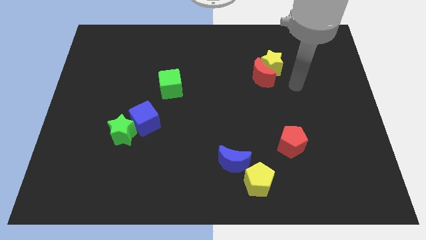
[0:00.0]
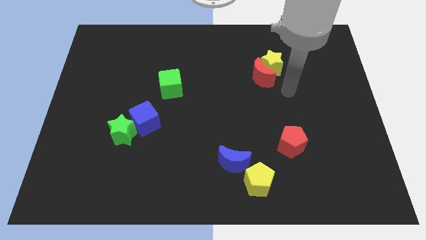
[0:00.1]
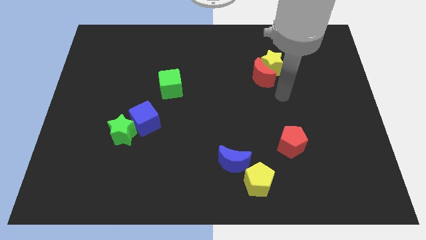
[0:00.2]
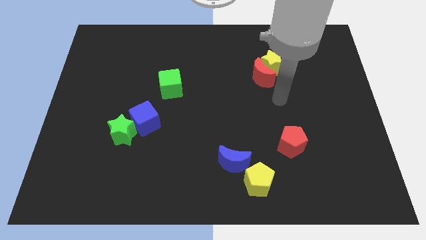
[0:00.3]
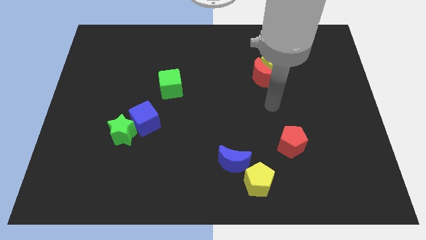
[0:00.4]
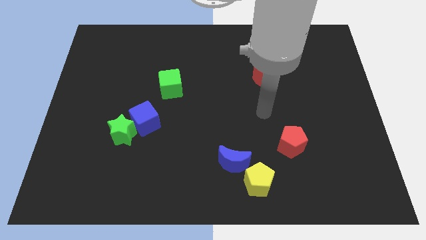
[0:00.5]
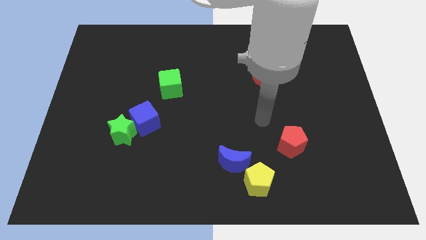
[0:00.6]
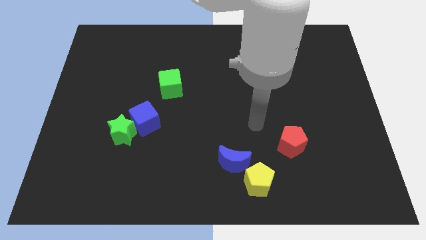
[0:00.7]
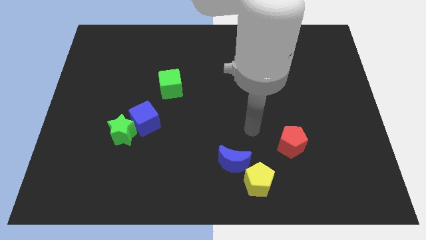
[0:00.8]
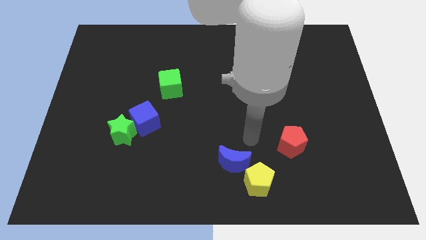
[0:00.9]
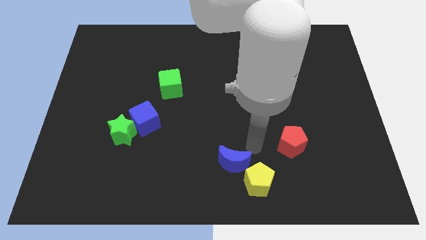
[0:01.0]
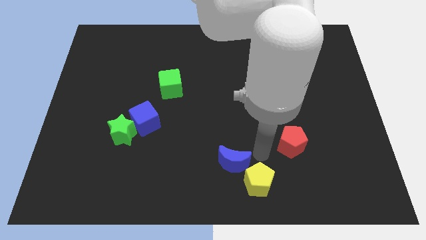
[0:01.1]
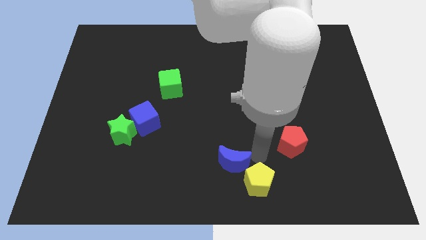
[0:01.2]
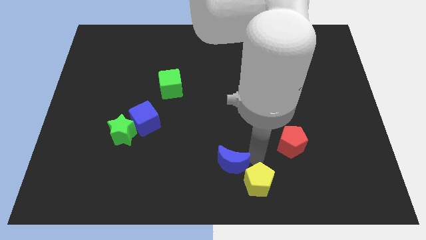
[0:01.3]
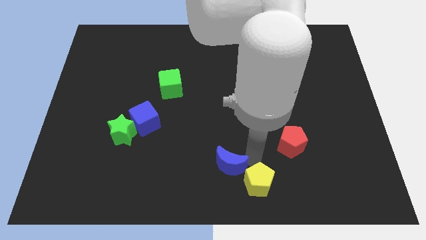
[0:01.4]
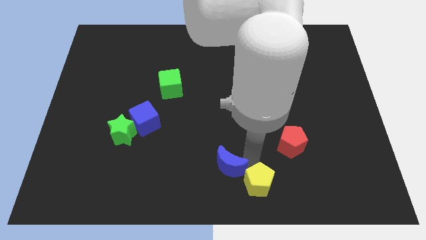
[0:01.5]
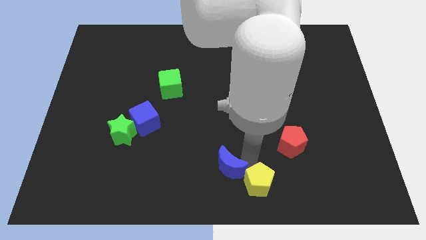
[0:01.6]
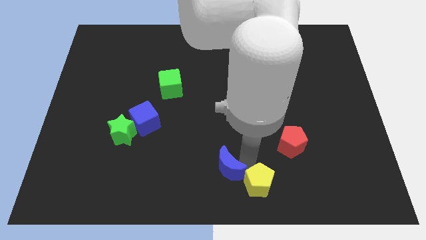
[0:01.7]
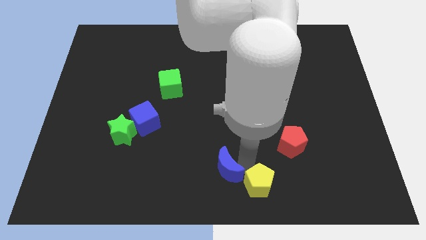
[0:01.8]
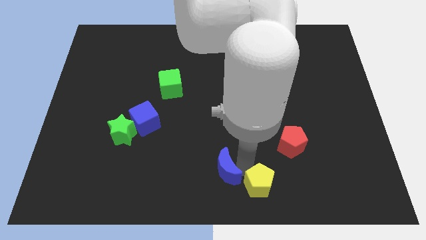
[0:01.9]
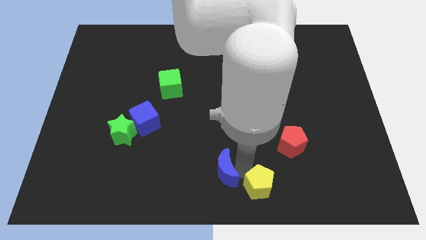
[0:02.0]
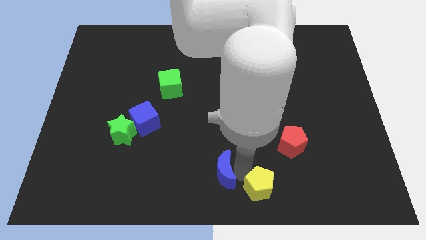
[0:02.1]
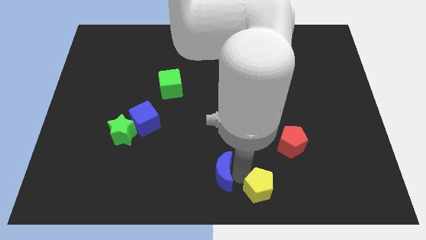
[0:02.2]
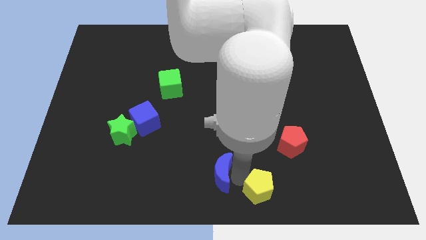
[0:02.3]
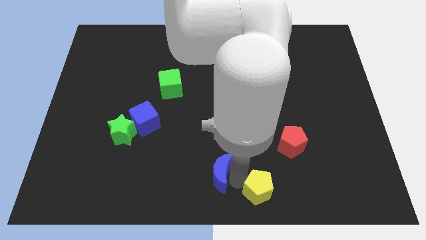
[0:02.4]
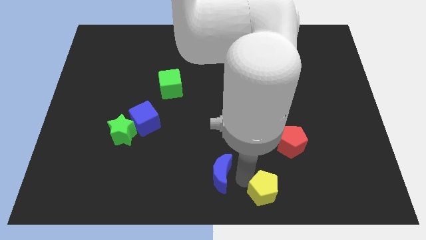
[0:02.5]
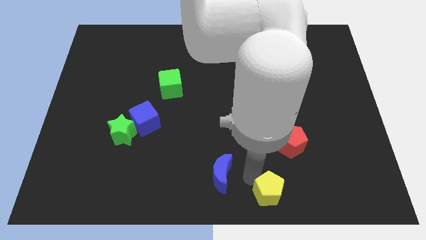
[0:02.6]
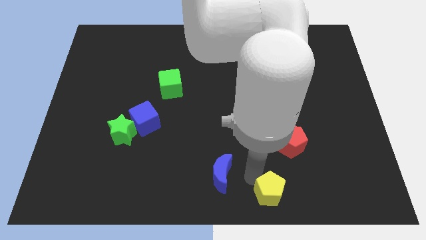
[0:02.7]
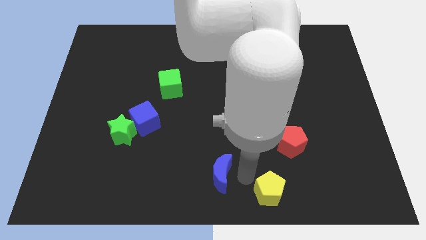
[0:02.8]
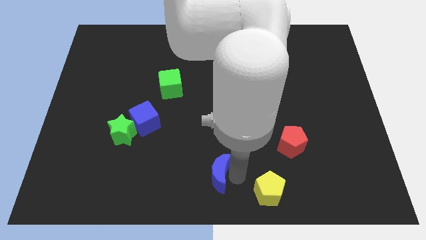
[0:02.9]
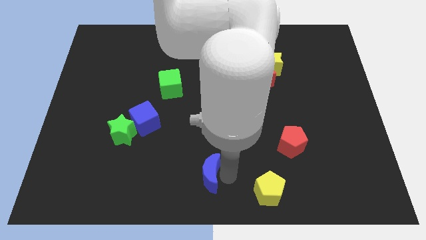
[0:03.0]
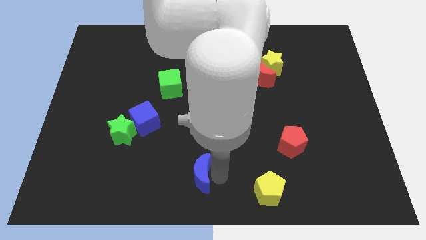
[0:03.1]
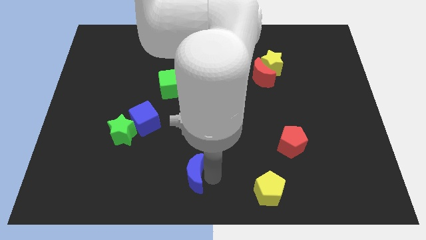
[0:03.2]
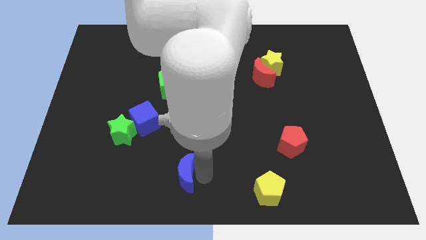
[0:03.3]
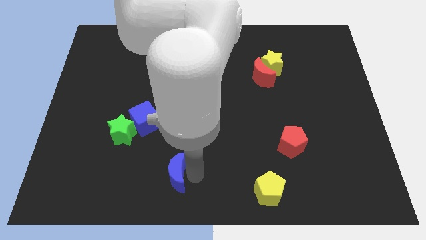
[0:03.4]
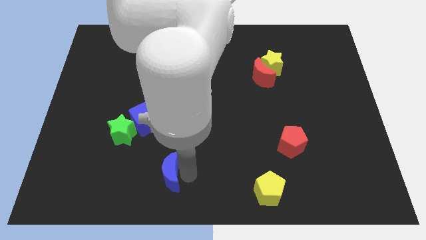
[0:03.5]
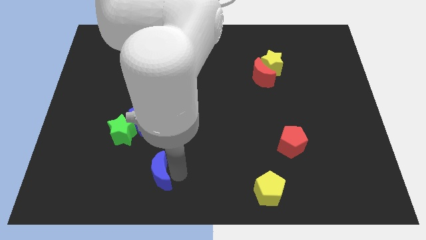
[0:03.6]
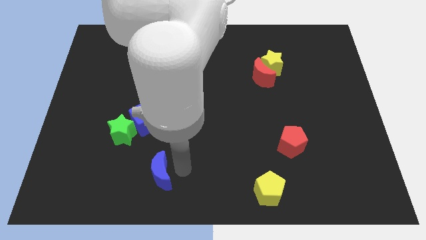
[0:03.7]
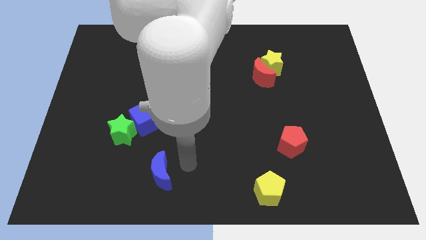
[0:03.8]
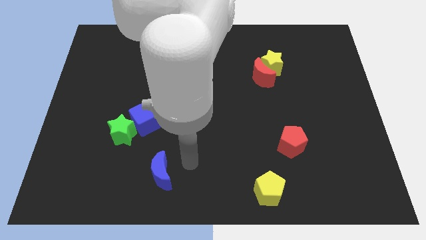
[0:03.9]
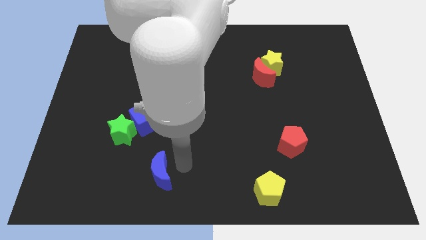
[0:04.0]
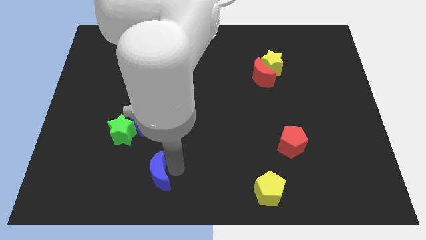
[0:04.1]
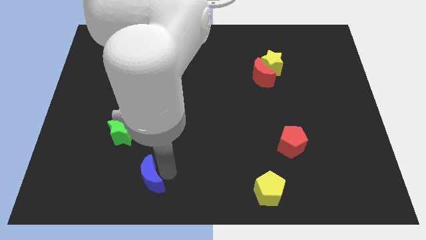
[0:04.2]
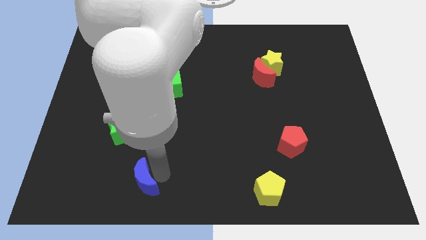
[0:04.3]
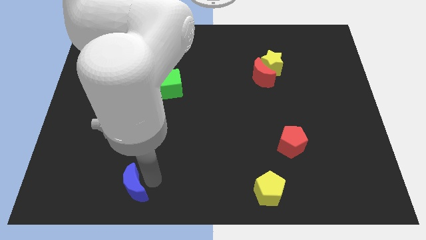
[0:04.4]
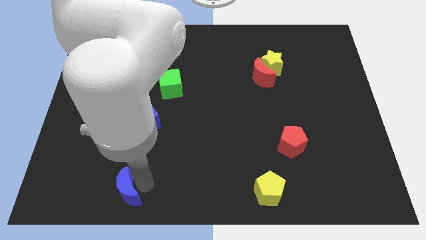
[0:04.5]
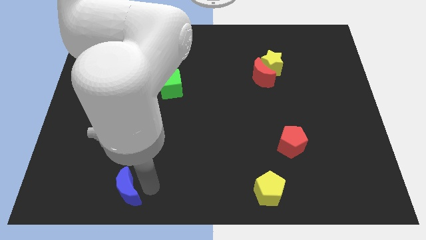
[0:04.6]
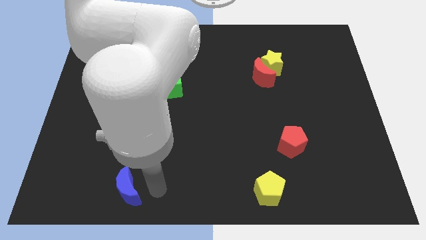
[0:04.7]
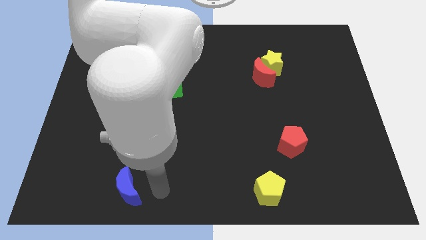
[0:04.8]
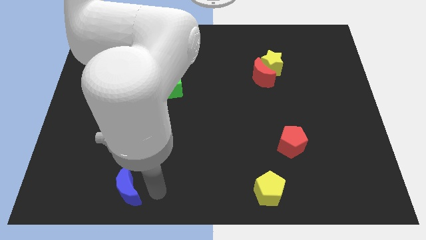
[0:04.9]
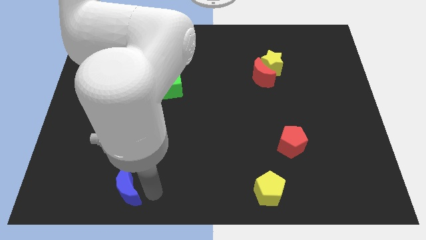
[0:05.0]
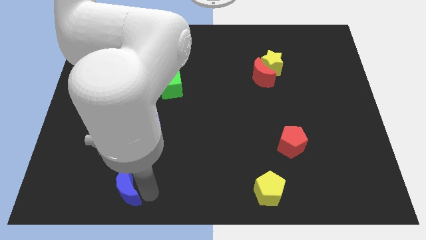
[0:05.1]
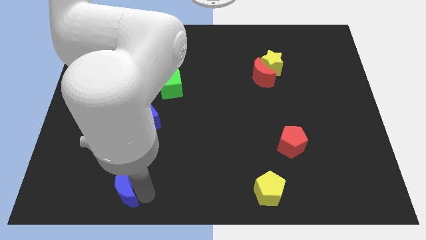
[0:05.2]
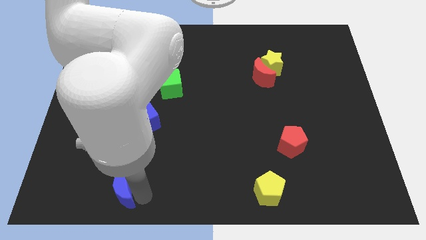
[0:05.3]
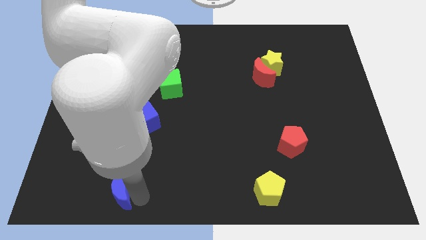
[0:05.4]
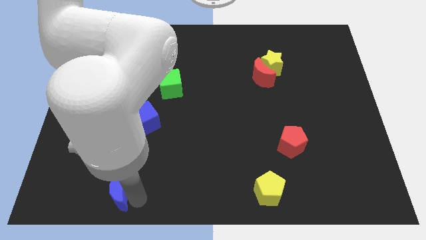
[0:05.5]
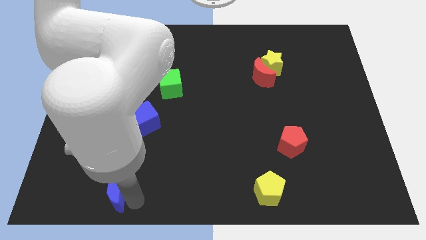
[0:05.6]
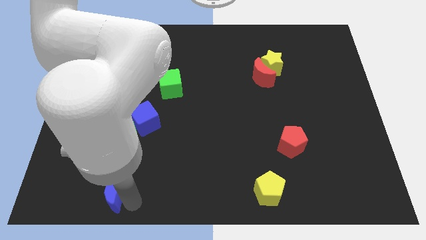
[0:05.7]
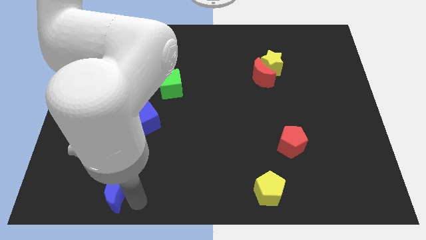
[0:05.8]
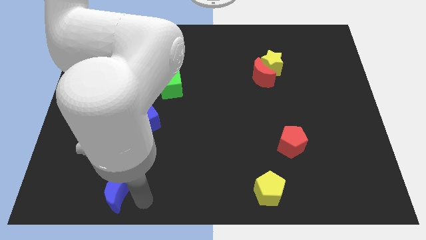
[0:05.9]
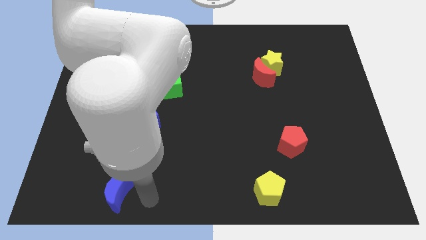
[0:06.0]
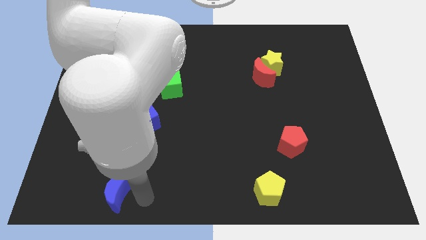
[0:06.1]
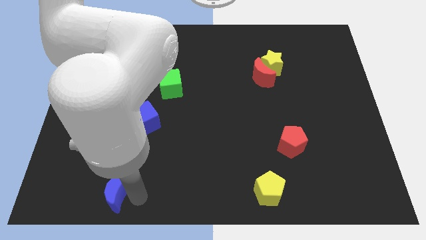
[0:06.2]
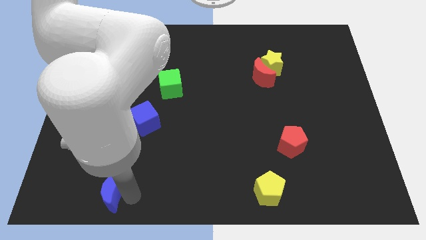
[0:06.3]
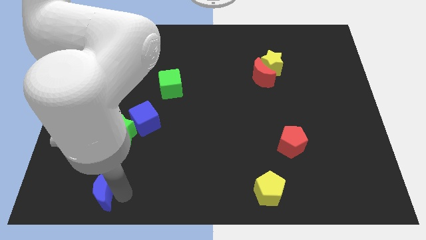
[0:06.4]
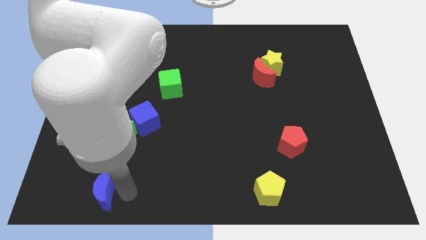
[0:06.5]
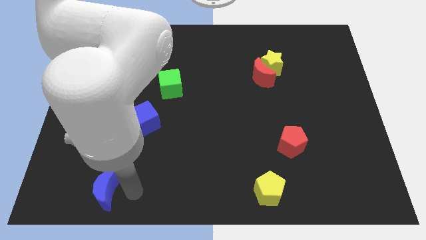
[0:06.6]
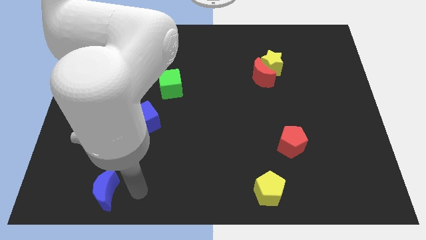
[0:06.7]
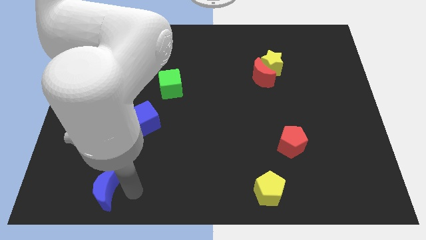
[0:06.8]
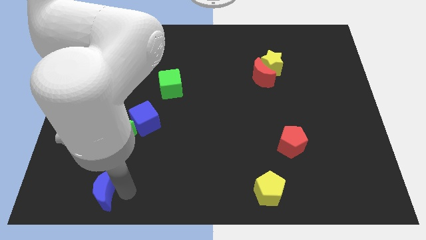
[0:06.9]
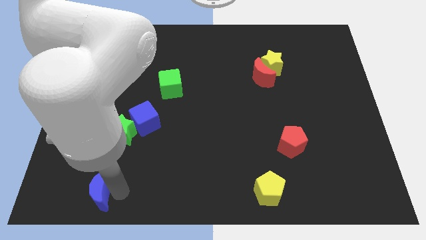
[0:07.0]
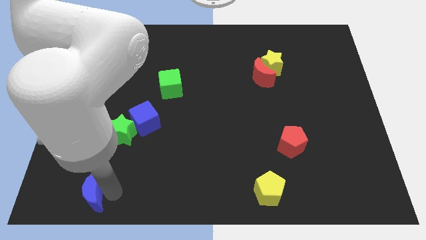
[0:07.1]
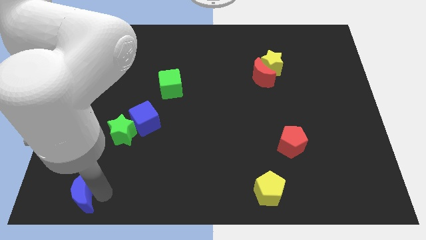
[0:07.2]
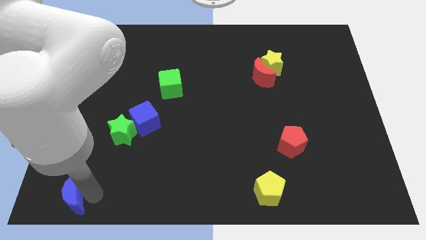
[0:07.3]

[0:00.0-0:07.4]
put the blue moon to the bottom left
